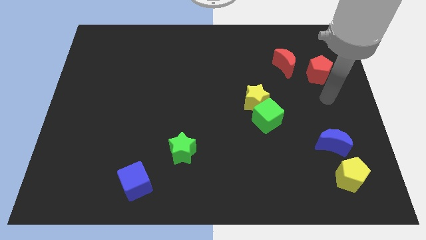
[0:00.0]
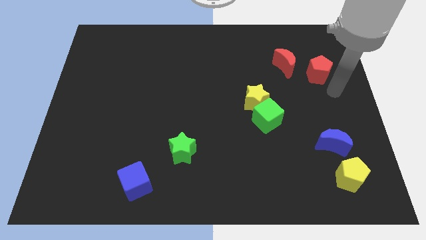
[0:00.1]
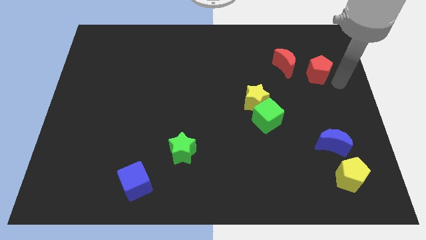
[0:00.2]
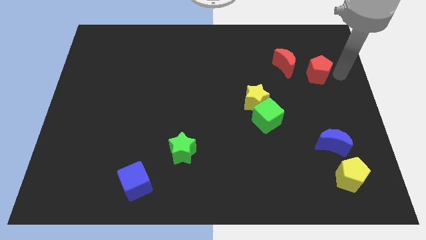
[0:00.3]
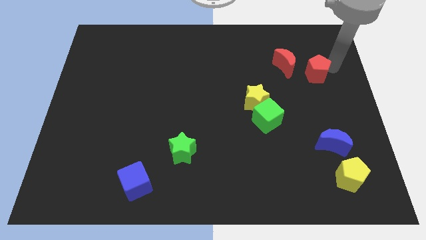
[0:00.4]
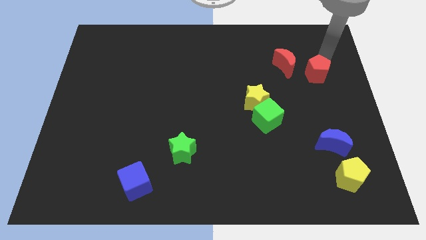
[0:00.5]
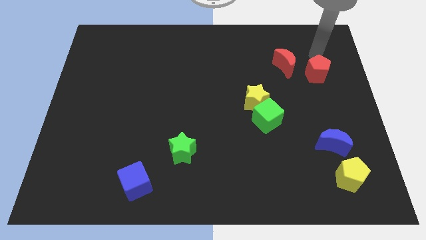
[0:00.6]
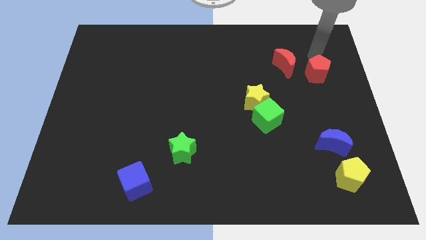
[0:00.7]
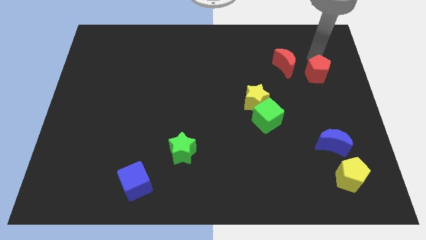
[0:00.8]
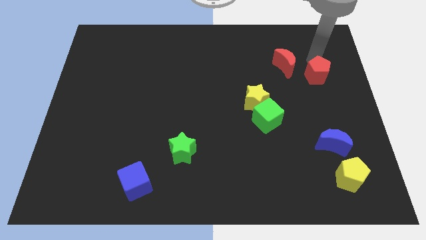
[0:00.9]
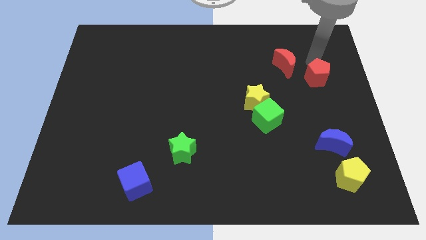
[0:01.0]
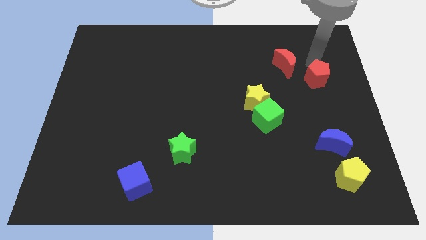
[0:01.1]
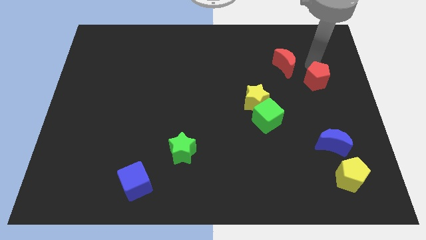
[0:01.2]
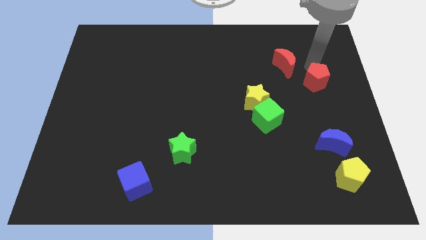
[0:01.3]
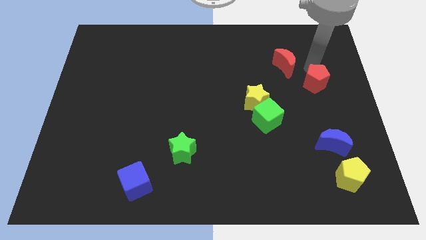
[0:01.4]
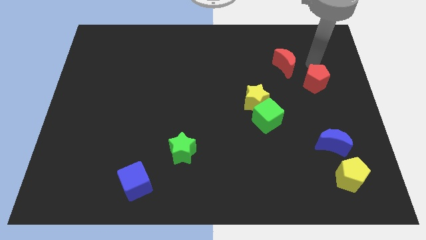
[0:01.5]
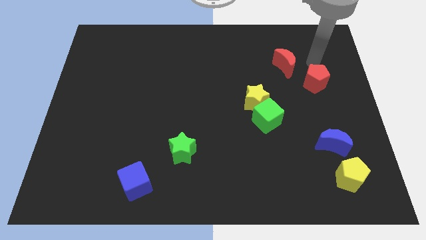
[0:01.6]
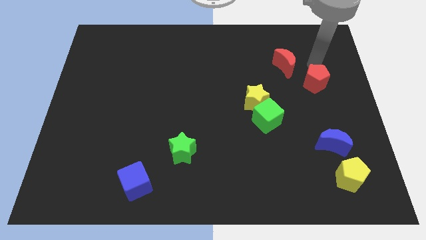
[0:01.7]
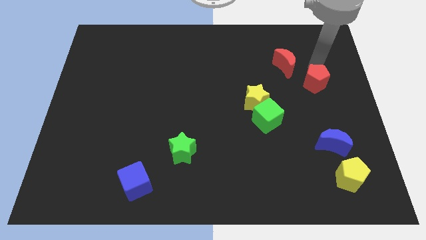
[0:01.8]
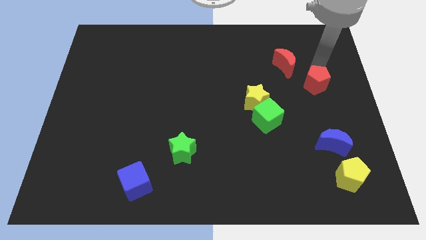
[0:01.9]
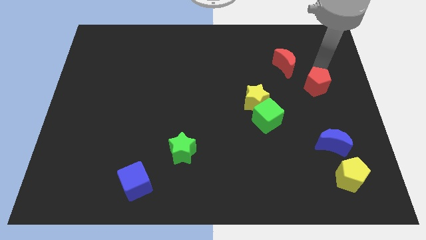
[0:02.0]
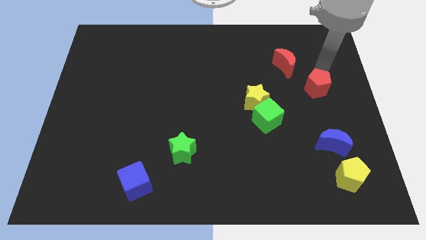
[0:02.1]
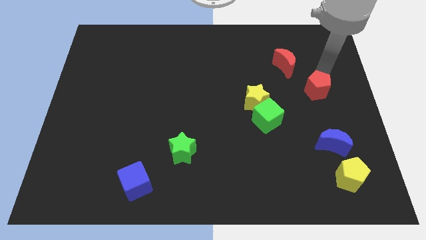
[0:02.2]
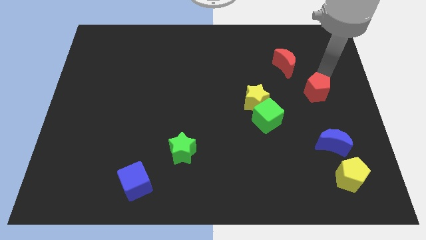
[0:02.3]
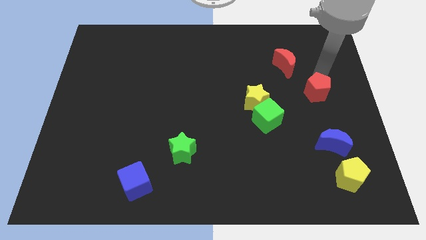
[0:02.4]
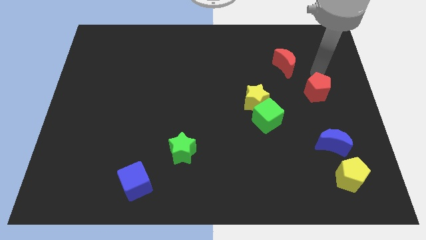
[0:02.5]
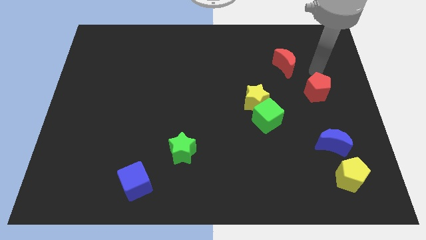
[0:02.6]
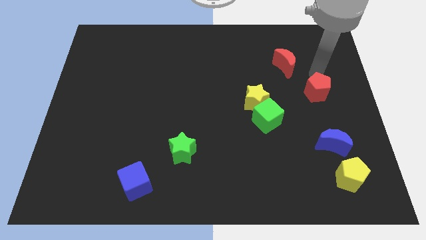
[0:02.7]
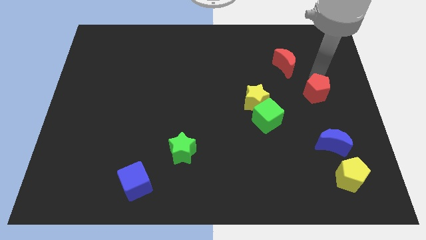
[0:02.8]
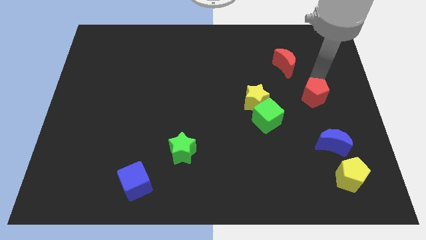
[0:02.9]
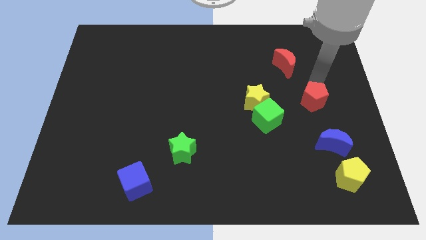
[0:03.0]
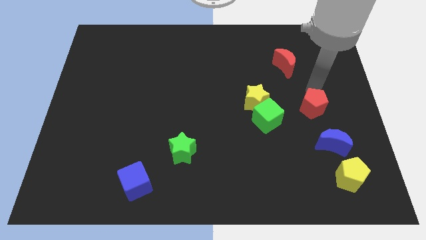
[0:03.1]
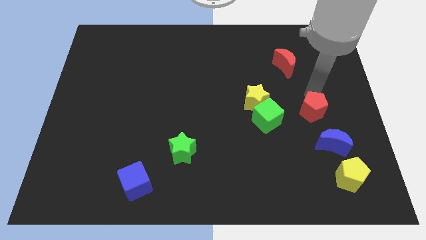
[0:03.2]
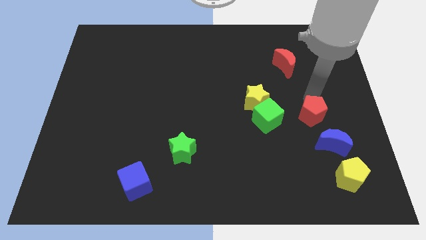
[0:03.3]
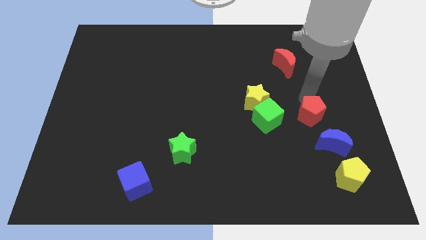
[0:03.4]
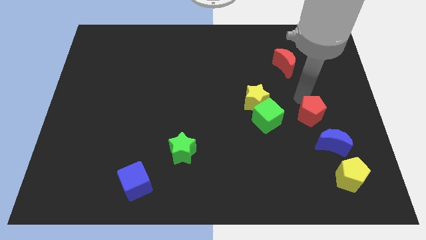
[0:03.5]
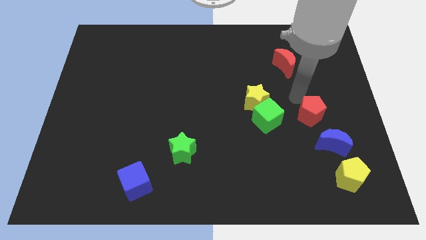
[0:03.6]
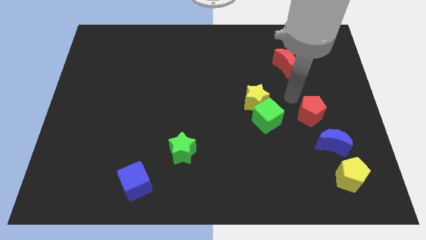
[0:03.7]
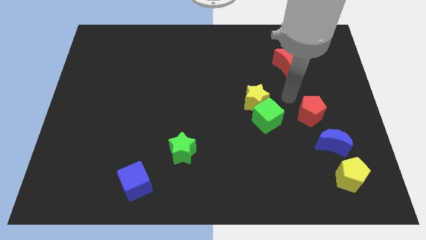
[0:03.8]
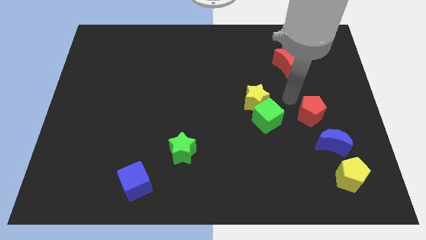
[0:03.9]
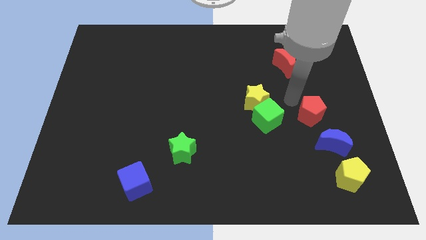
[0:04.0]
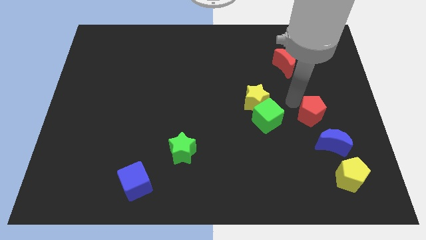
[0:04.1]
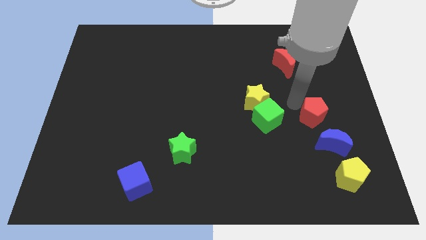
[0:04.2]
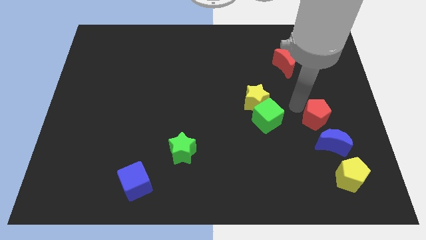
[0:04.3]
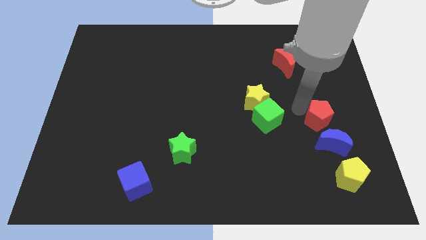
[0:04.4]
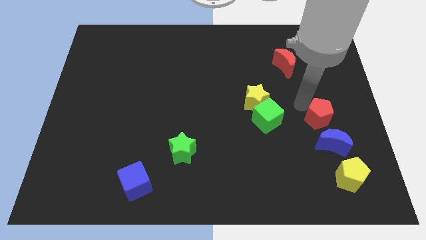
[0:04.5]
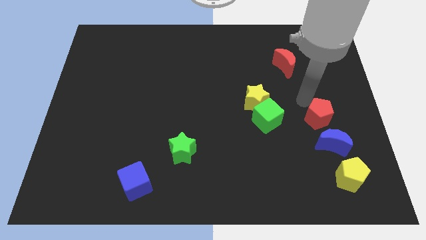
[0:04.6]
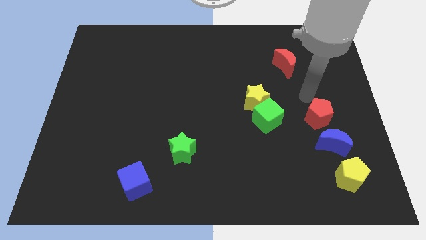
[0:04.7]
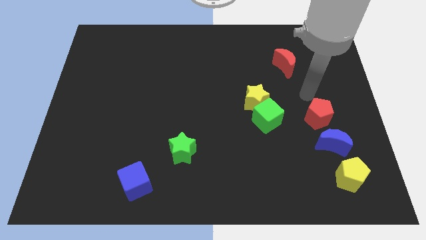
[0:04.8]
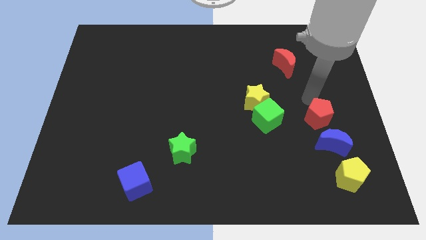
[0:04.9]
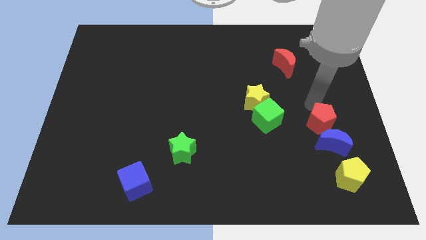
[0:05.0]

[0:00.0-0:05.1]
slide the red pentagon next to the blue moon

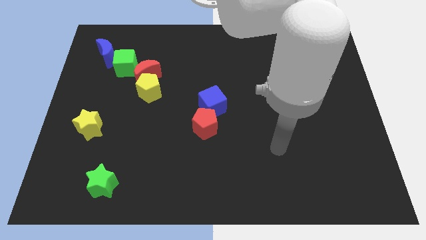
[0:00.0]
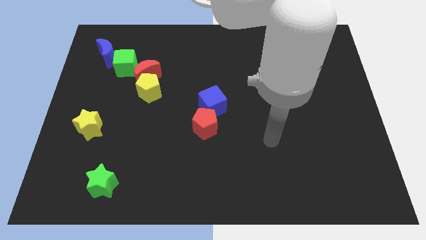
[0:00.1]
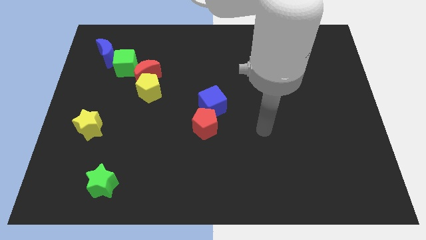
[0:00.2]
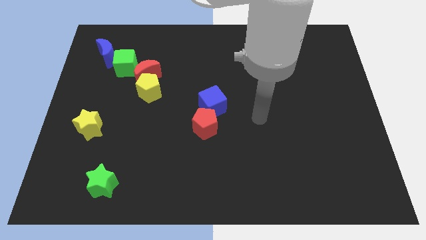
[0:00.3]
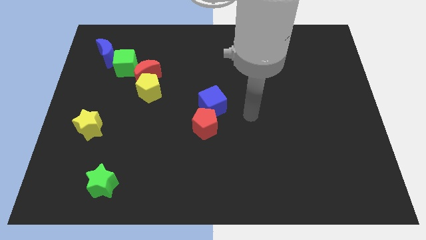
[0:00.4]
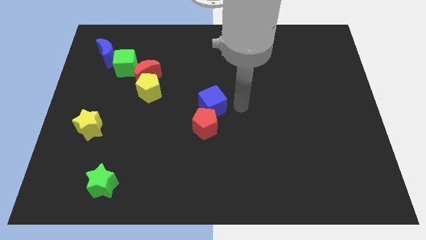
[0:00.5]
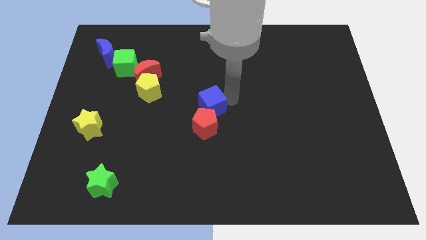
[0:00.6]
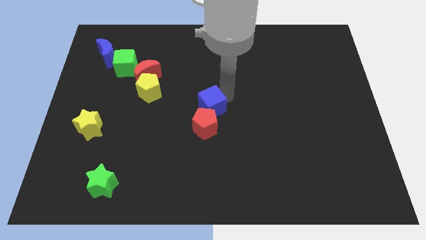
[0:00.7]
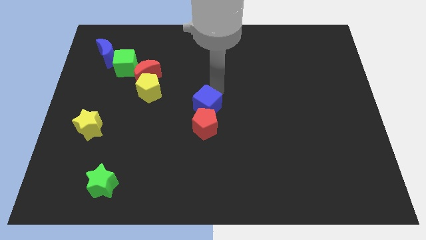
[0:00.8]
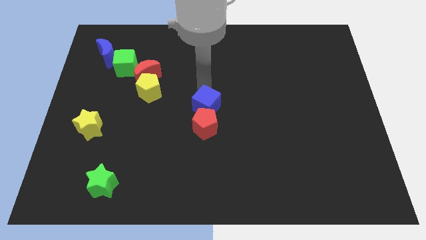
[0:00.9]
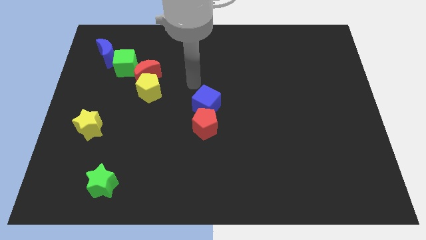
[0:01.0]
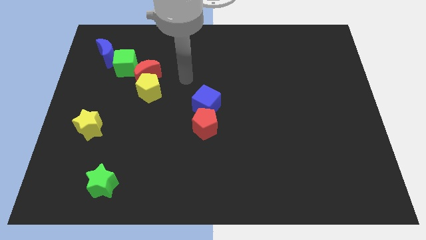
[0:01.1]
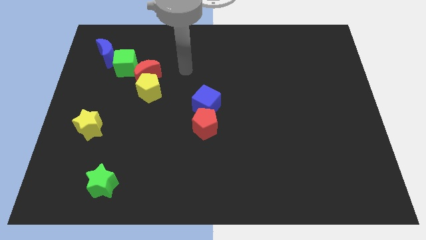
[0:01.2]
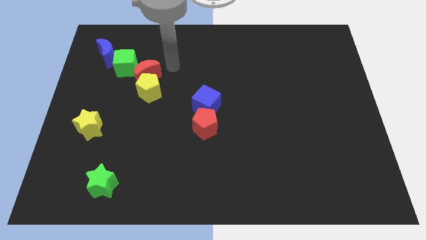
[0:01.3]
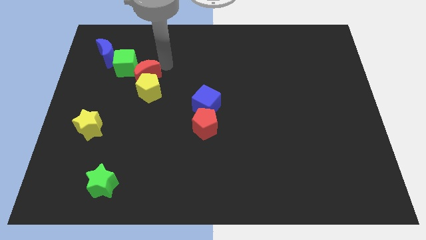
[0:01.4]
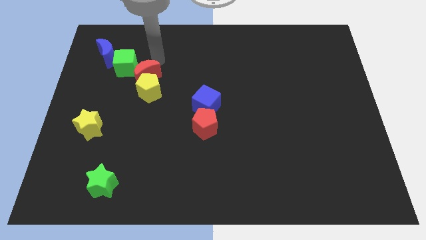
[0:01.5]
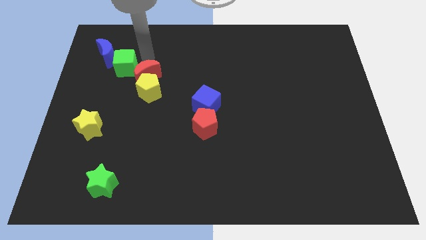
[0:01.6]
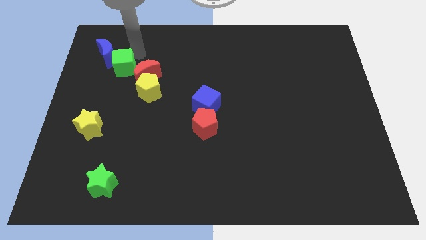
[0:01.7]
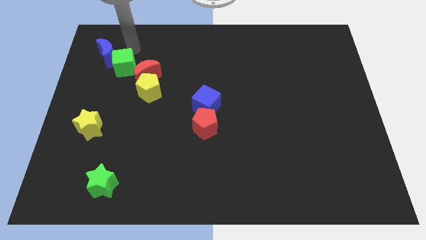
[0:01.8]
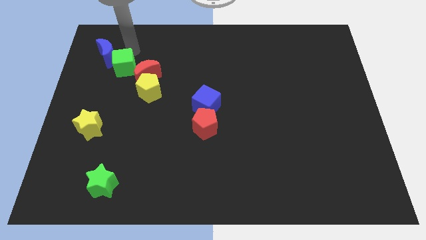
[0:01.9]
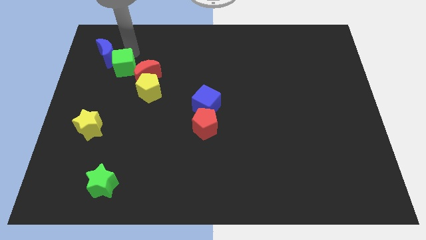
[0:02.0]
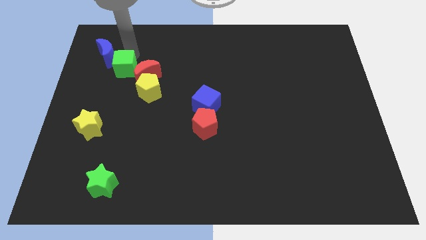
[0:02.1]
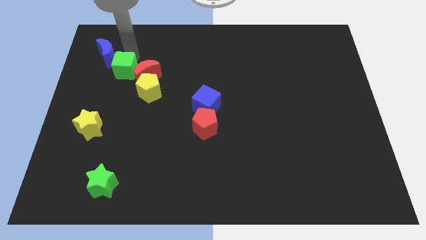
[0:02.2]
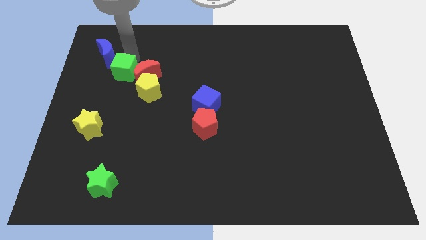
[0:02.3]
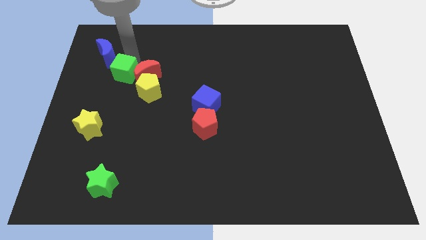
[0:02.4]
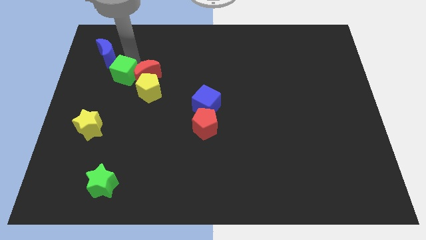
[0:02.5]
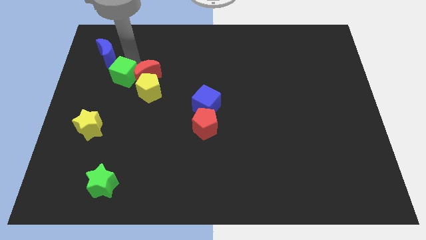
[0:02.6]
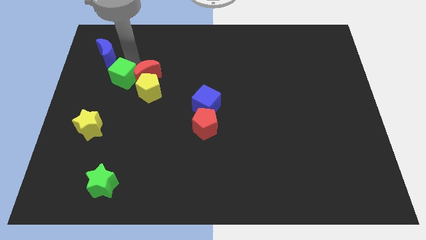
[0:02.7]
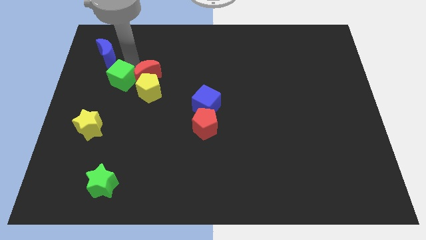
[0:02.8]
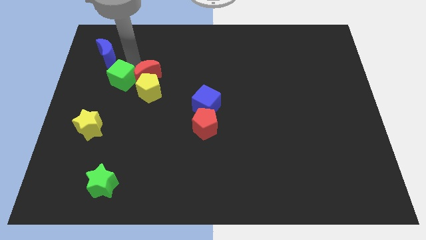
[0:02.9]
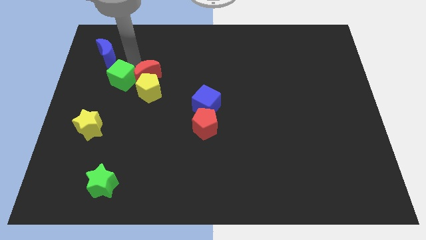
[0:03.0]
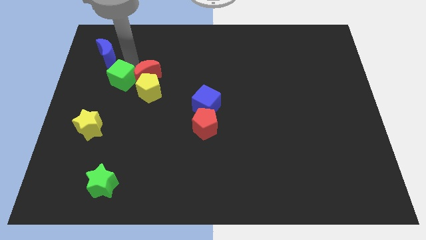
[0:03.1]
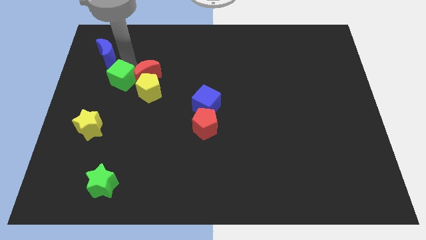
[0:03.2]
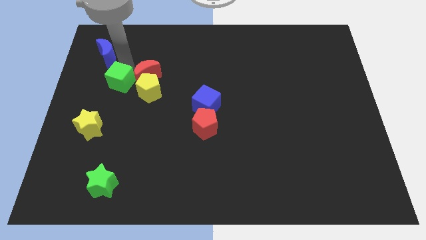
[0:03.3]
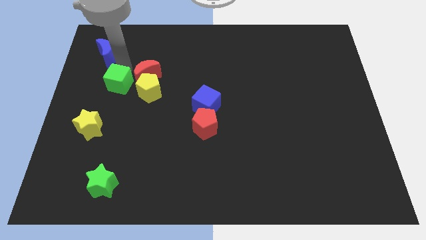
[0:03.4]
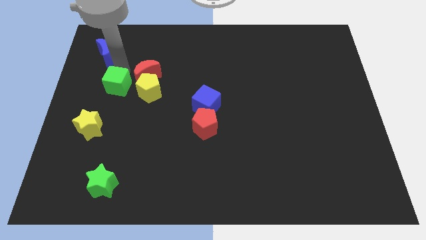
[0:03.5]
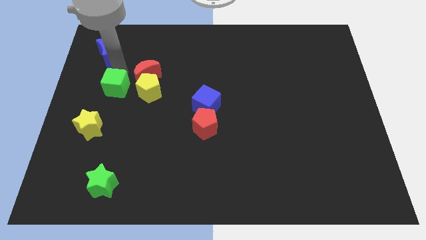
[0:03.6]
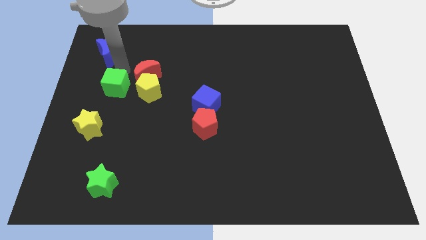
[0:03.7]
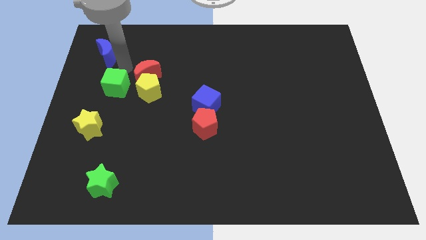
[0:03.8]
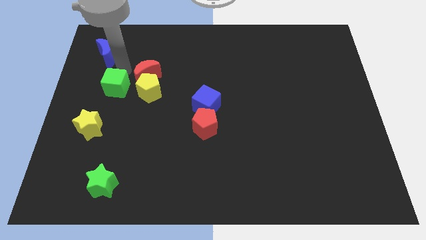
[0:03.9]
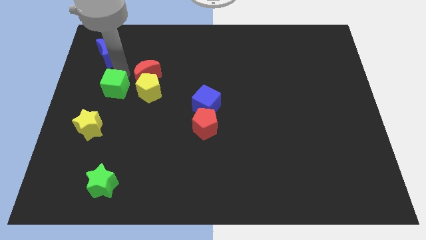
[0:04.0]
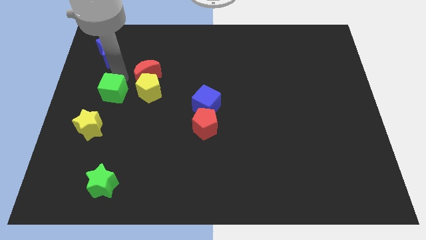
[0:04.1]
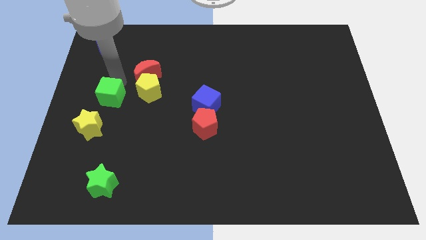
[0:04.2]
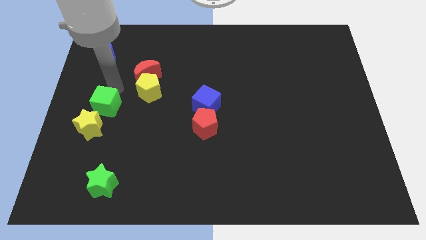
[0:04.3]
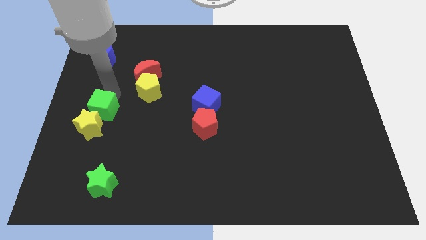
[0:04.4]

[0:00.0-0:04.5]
move the green cube towards the yellow star
